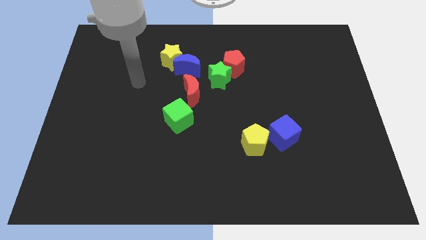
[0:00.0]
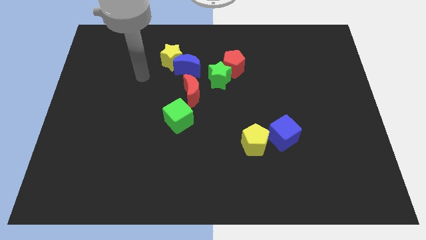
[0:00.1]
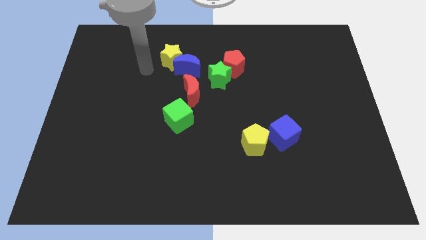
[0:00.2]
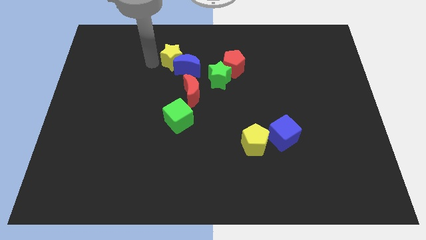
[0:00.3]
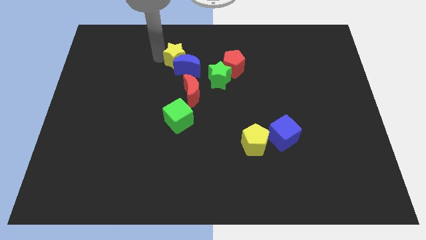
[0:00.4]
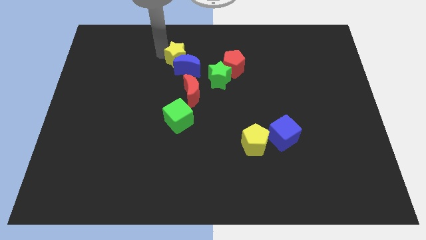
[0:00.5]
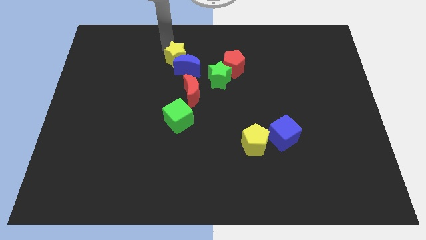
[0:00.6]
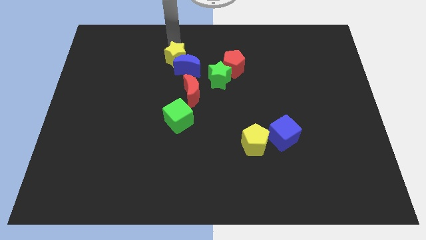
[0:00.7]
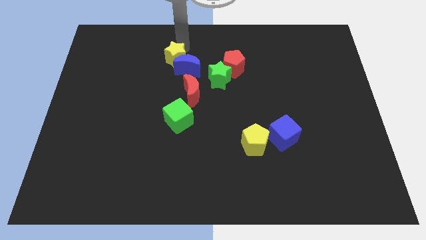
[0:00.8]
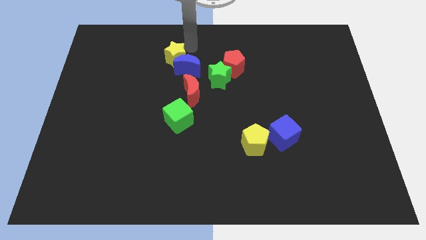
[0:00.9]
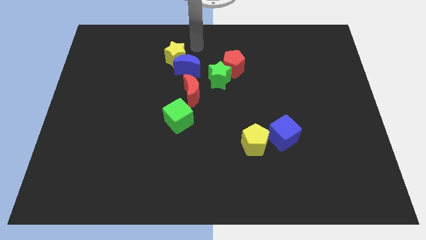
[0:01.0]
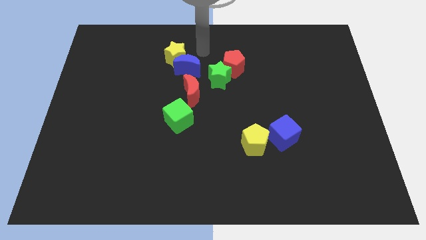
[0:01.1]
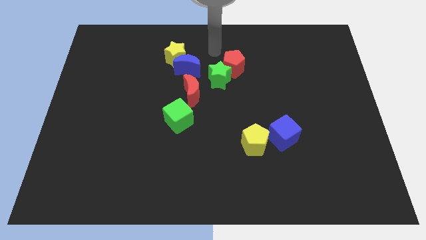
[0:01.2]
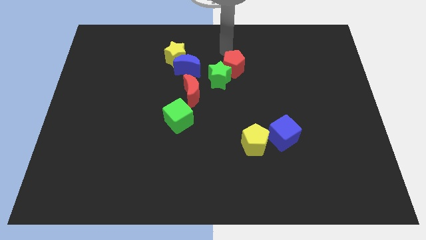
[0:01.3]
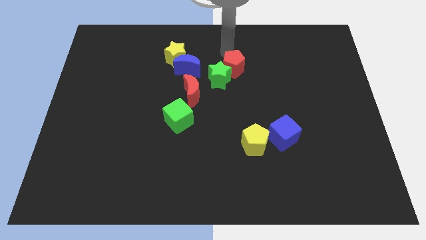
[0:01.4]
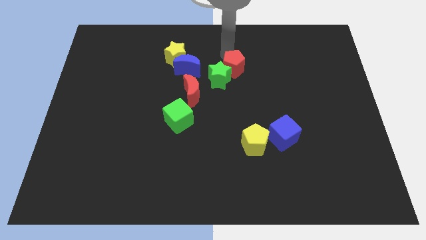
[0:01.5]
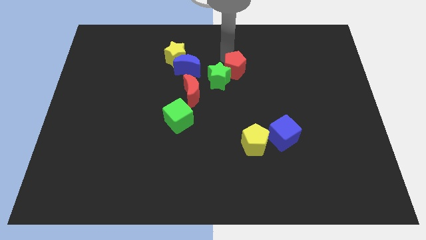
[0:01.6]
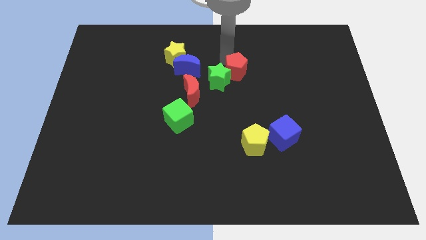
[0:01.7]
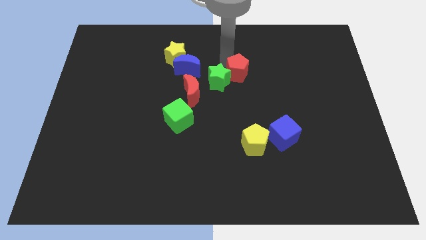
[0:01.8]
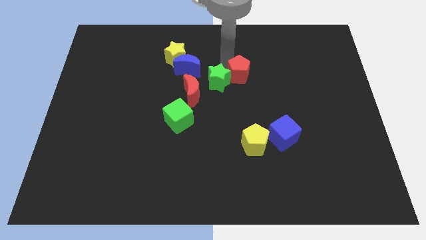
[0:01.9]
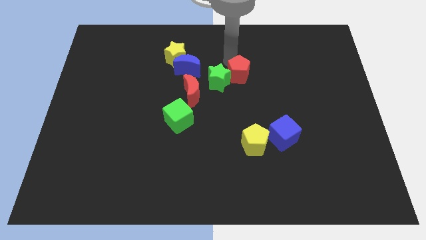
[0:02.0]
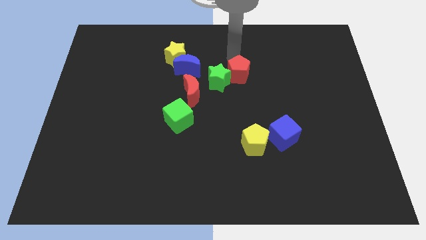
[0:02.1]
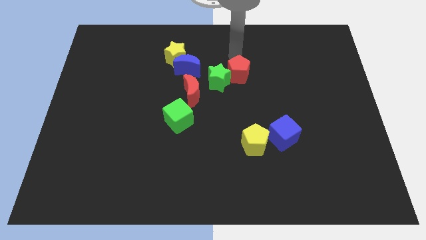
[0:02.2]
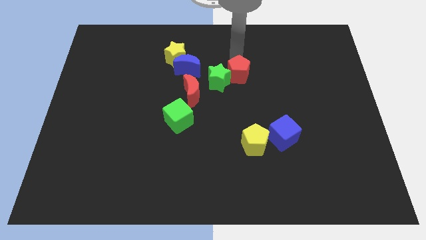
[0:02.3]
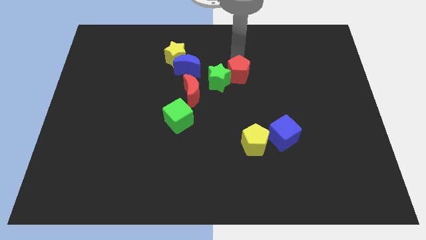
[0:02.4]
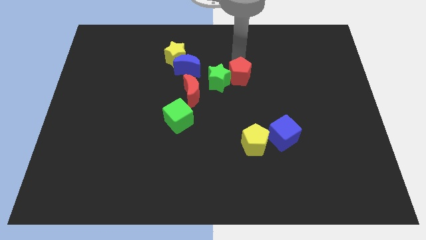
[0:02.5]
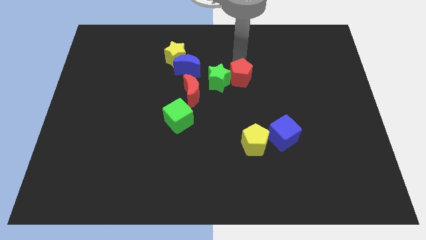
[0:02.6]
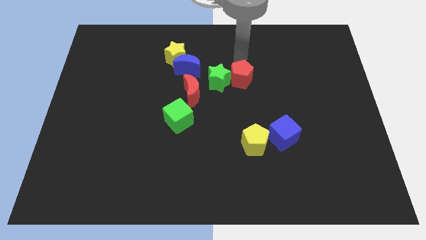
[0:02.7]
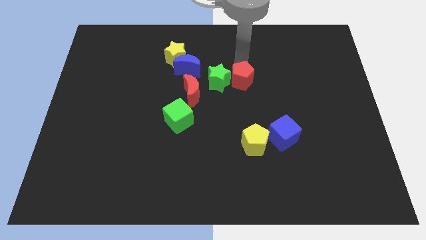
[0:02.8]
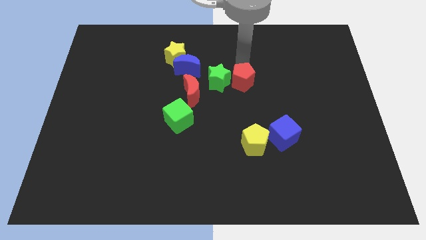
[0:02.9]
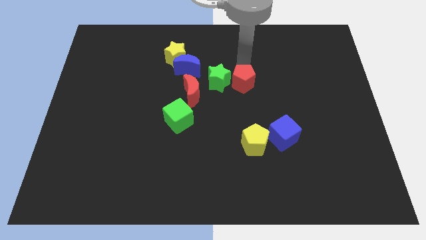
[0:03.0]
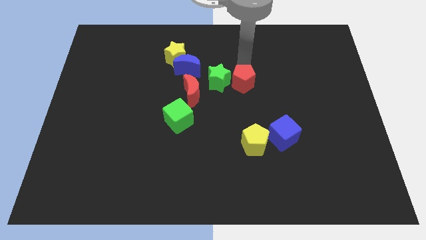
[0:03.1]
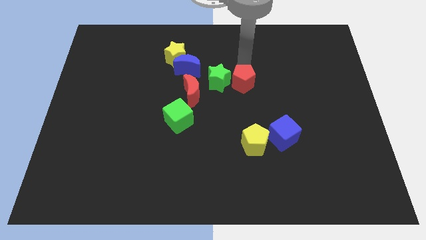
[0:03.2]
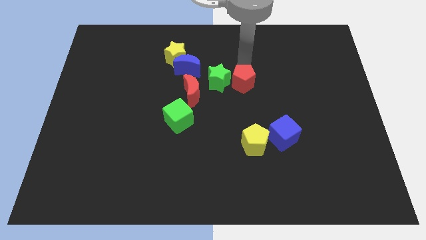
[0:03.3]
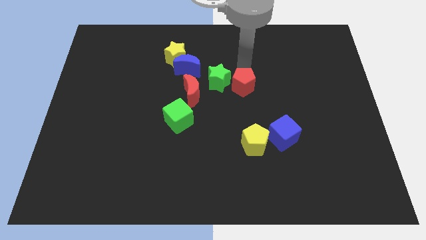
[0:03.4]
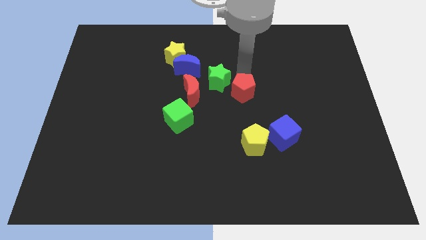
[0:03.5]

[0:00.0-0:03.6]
move the red pentagon a little down

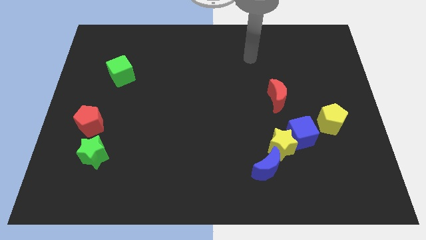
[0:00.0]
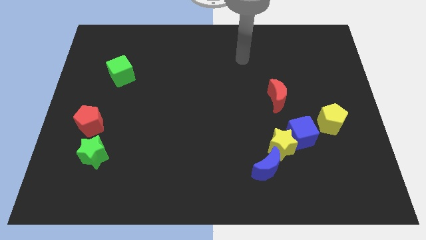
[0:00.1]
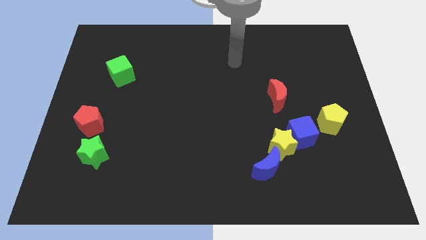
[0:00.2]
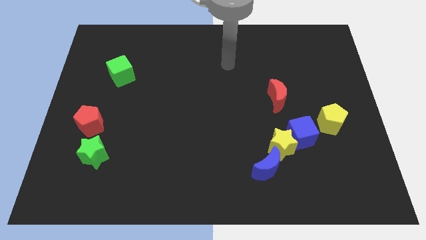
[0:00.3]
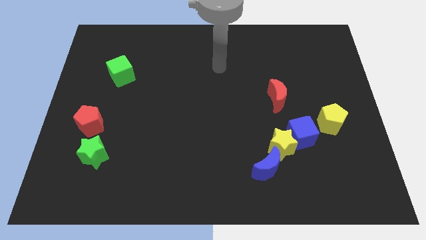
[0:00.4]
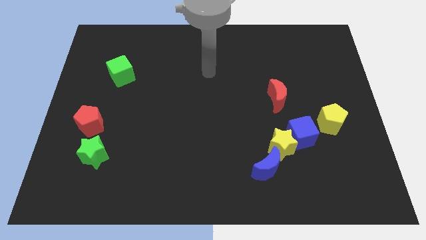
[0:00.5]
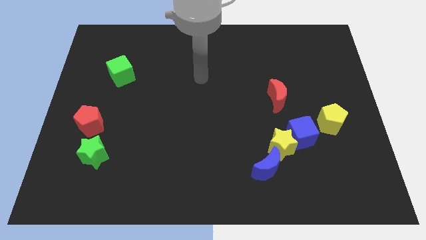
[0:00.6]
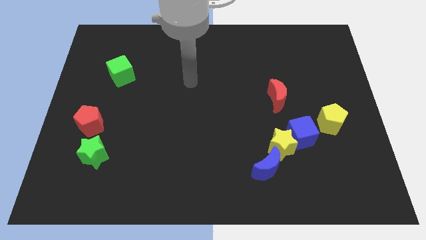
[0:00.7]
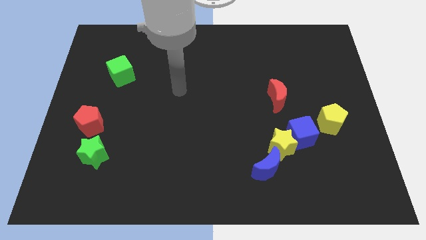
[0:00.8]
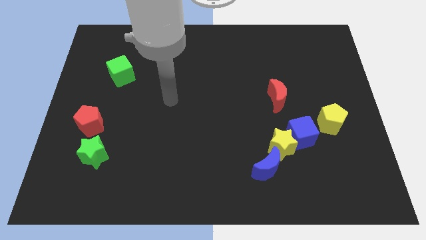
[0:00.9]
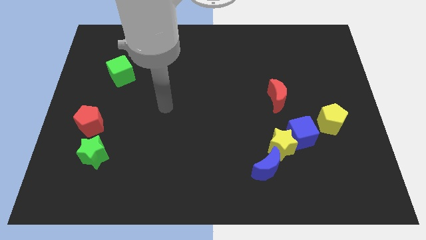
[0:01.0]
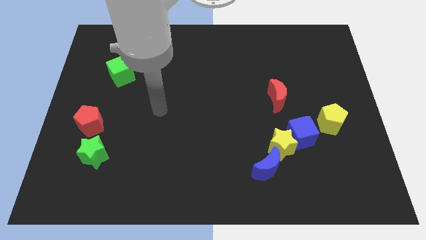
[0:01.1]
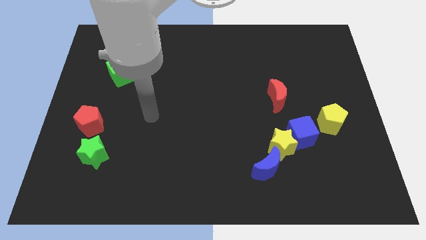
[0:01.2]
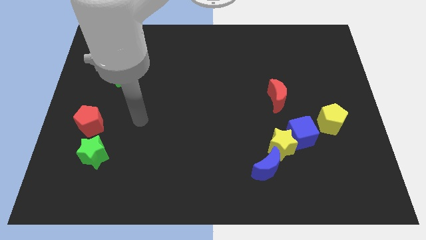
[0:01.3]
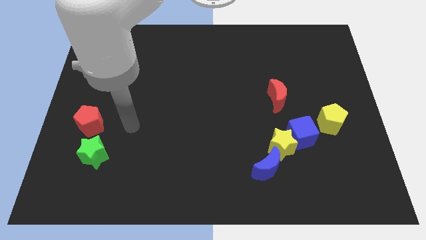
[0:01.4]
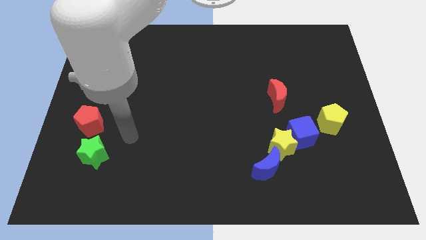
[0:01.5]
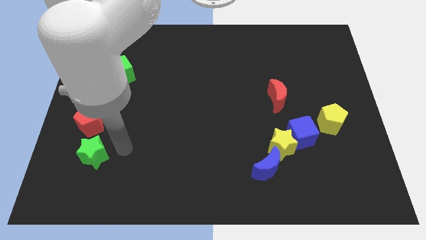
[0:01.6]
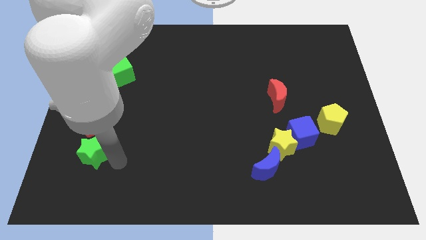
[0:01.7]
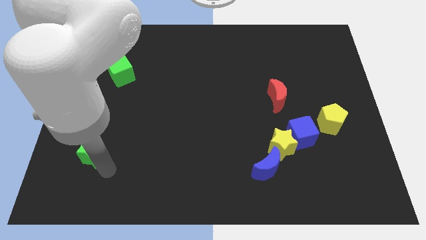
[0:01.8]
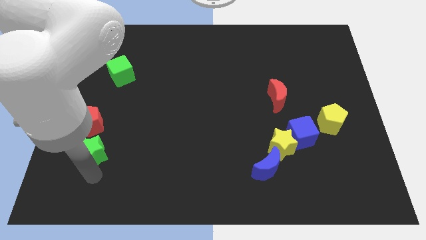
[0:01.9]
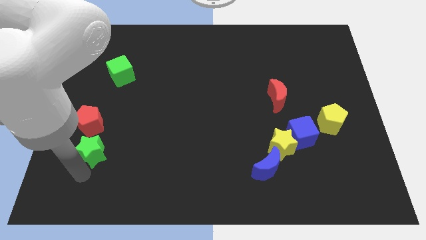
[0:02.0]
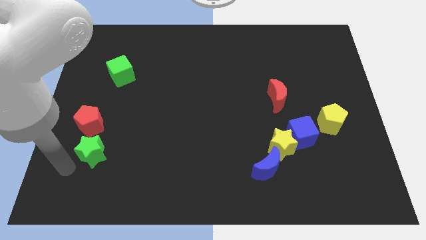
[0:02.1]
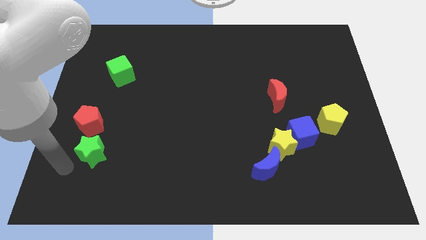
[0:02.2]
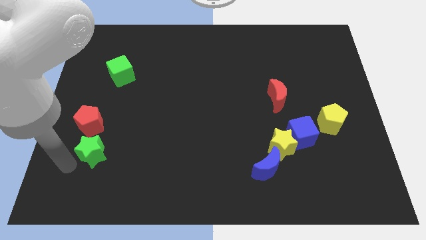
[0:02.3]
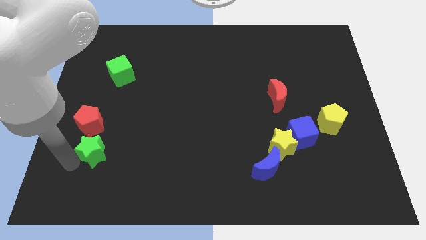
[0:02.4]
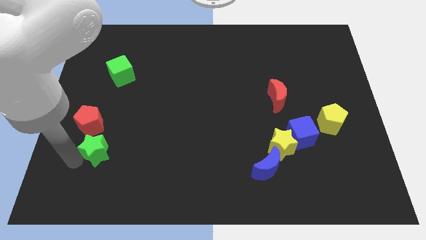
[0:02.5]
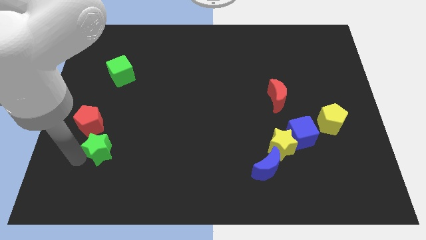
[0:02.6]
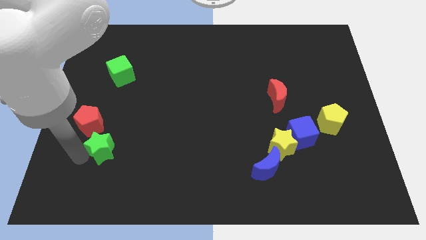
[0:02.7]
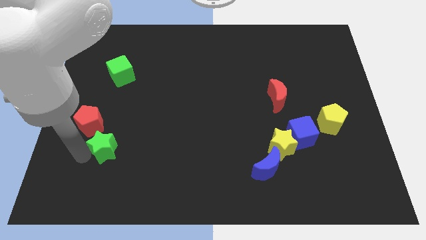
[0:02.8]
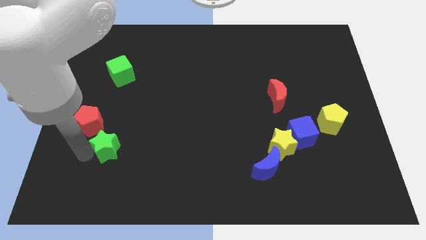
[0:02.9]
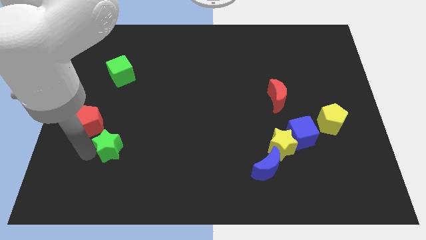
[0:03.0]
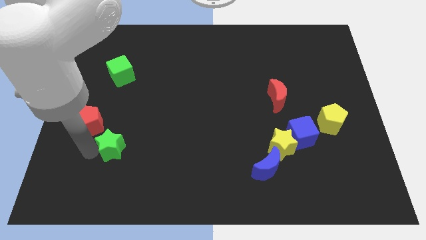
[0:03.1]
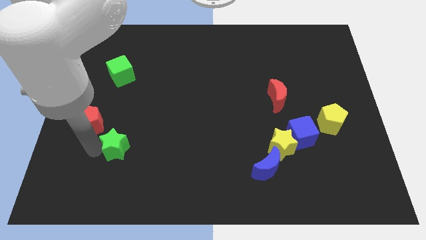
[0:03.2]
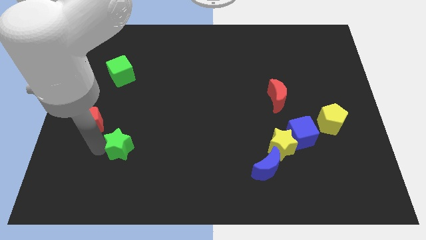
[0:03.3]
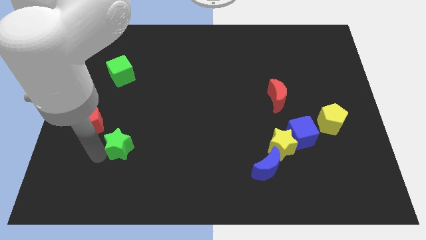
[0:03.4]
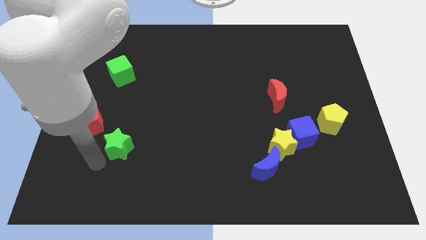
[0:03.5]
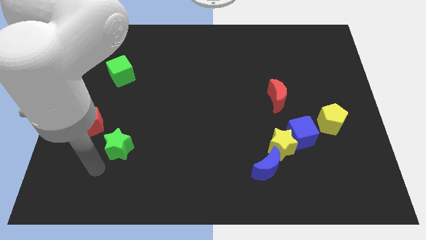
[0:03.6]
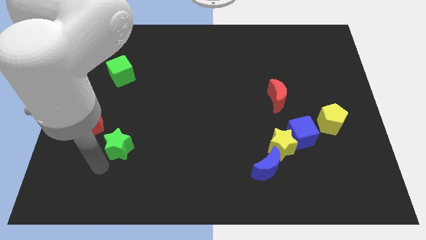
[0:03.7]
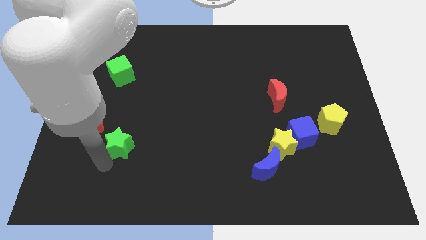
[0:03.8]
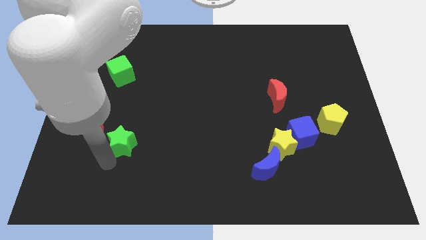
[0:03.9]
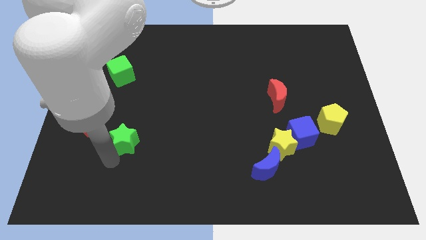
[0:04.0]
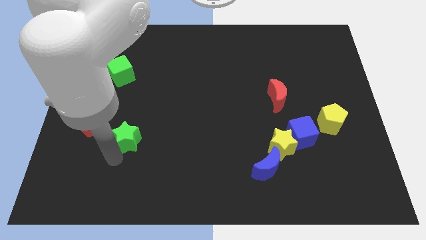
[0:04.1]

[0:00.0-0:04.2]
move the green star somewhat diagonally up and right

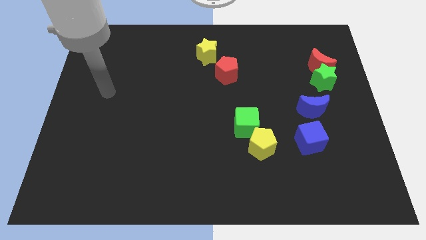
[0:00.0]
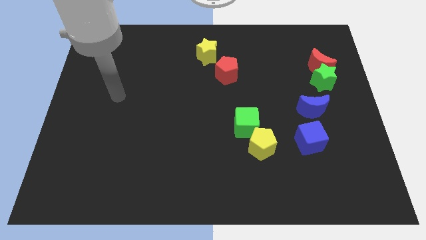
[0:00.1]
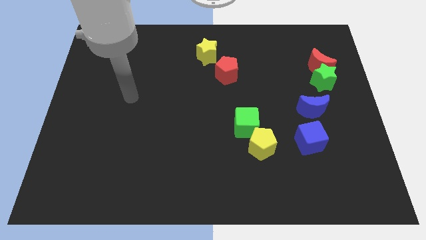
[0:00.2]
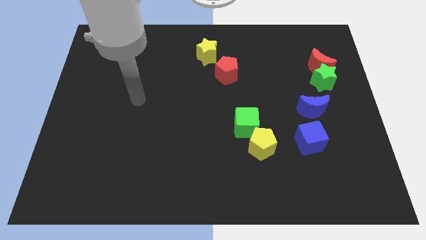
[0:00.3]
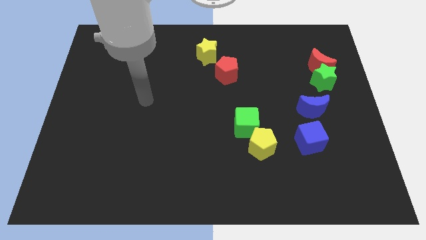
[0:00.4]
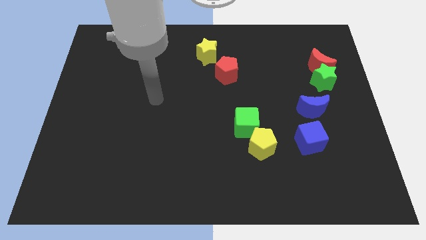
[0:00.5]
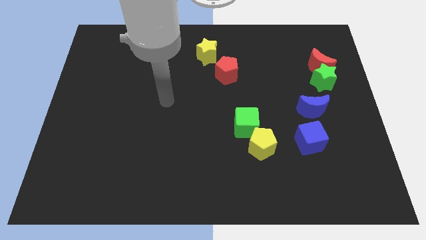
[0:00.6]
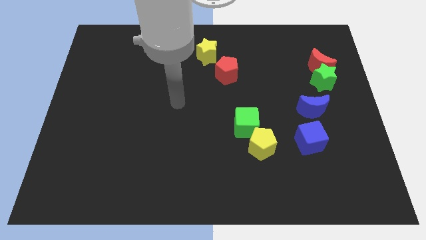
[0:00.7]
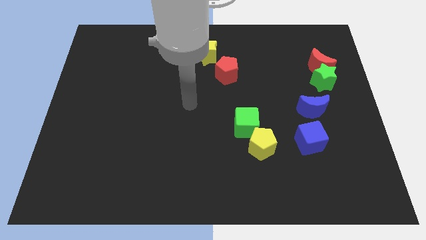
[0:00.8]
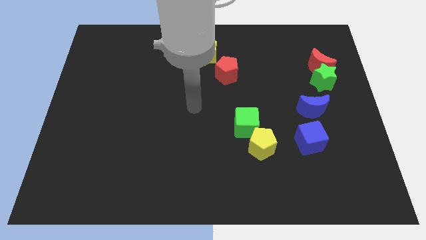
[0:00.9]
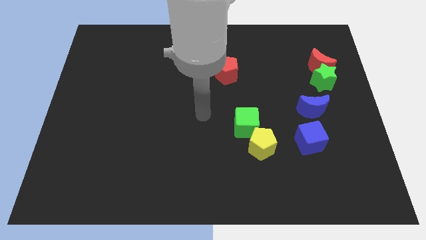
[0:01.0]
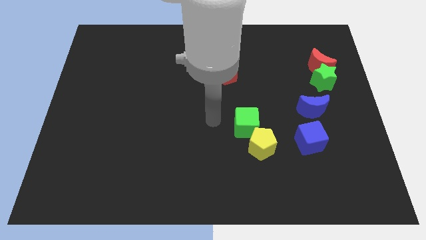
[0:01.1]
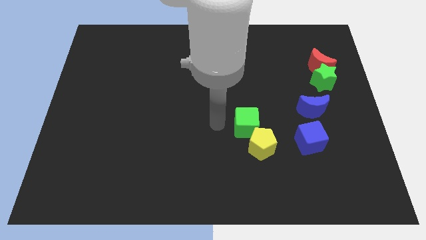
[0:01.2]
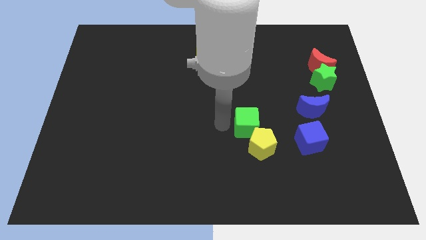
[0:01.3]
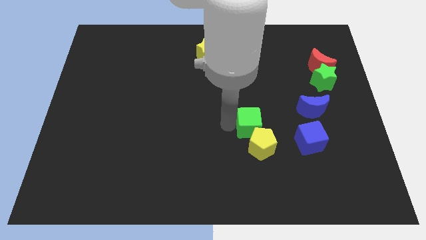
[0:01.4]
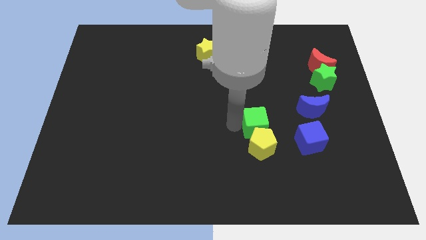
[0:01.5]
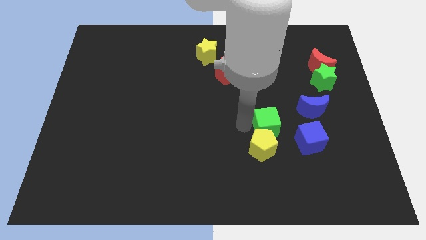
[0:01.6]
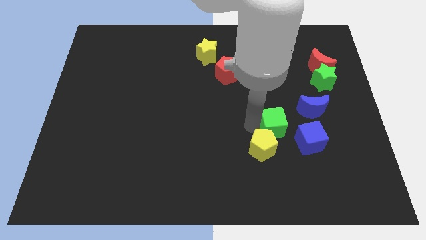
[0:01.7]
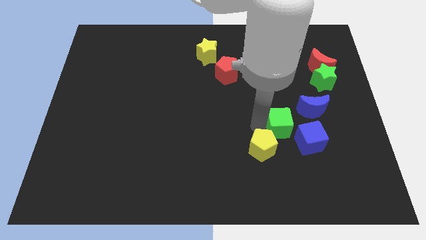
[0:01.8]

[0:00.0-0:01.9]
move the green cube a little bit to the right
